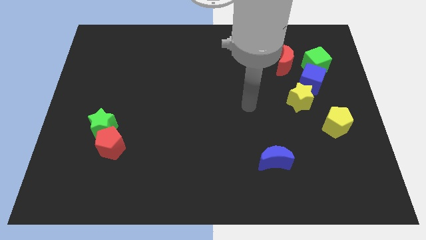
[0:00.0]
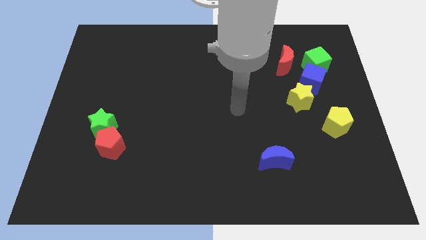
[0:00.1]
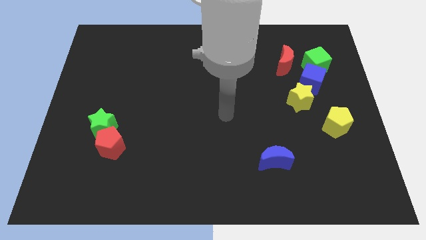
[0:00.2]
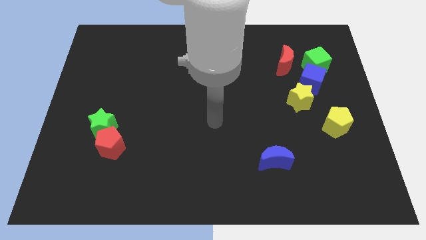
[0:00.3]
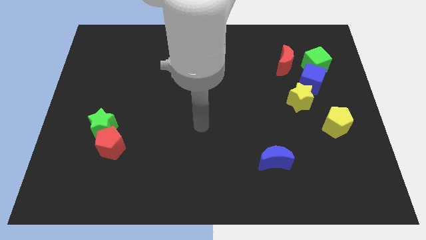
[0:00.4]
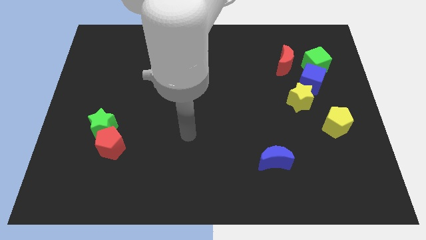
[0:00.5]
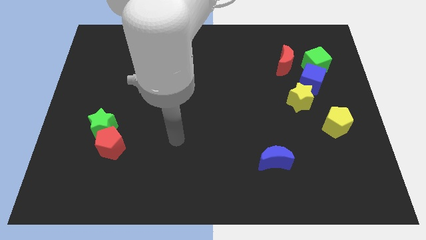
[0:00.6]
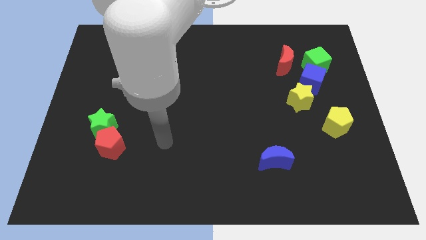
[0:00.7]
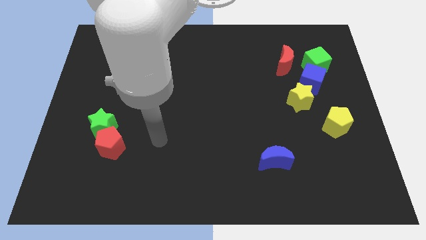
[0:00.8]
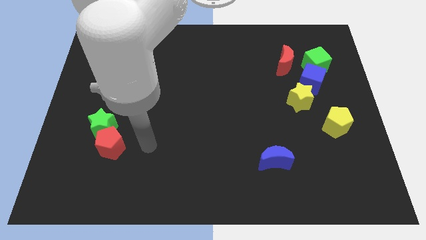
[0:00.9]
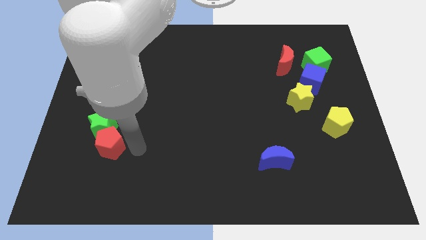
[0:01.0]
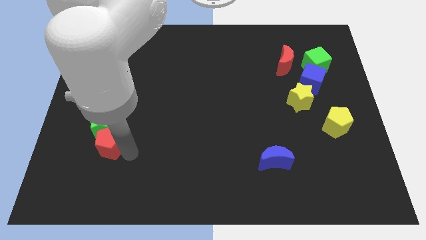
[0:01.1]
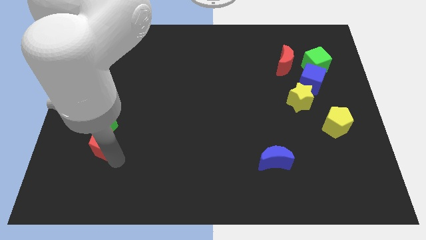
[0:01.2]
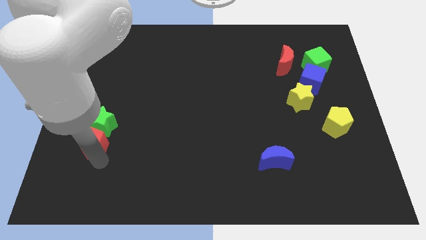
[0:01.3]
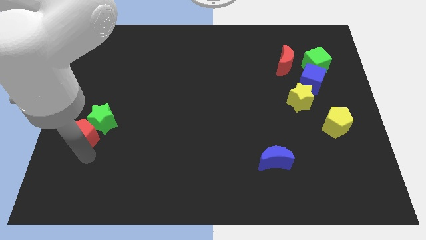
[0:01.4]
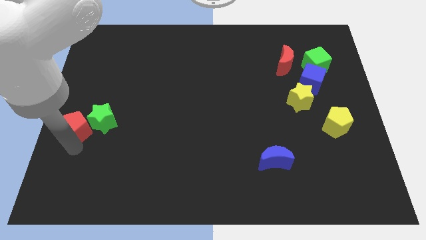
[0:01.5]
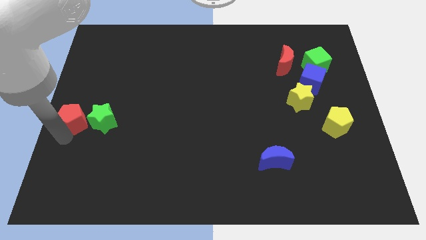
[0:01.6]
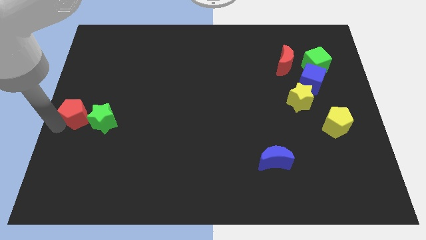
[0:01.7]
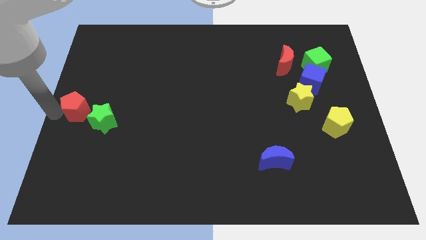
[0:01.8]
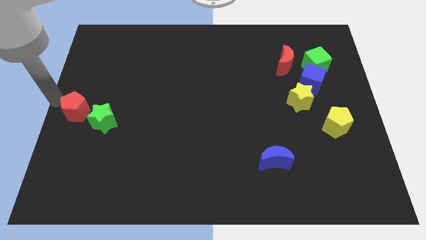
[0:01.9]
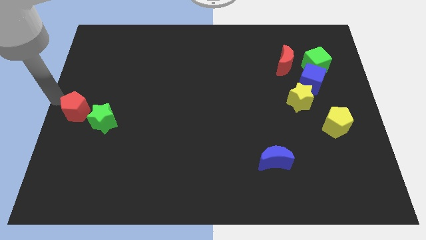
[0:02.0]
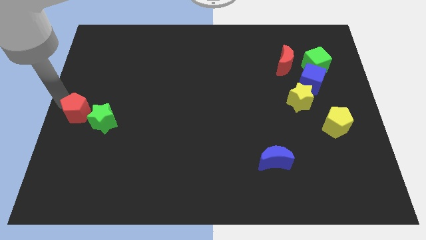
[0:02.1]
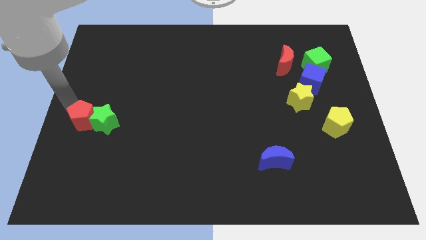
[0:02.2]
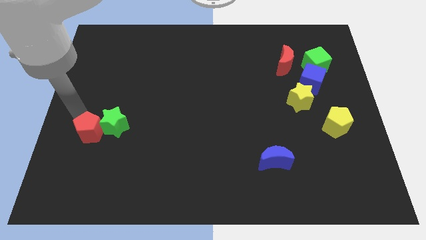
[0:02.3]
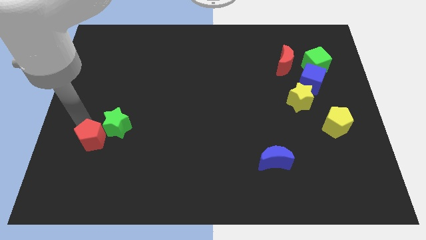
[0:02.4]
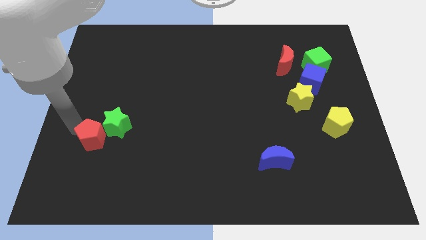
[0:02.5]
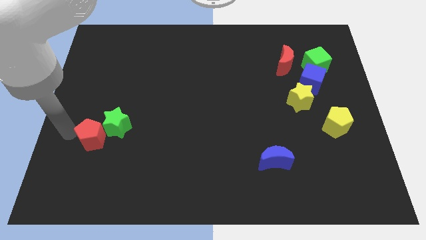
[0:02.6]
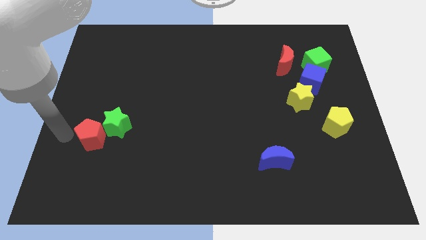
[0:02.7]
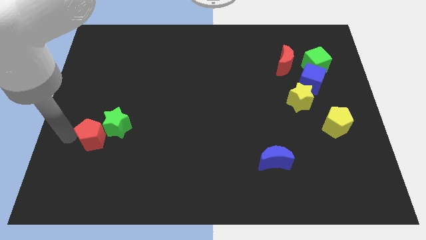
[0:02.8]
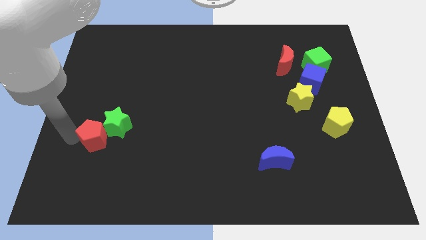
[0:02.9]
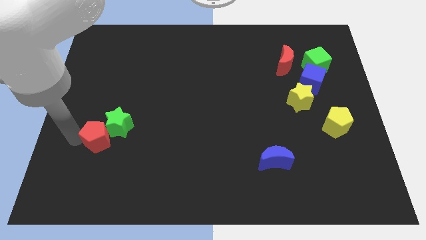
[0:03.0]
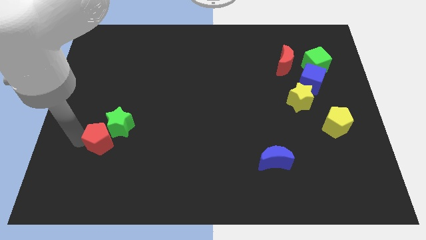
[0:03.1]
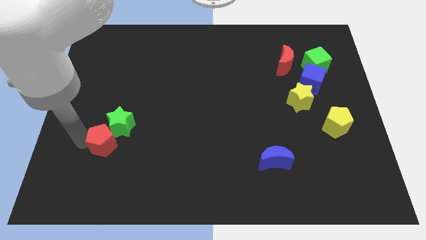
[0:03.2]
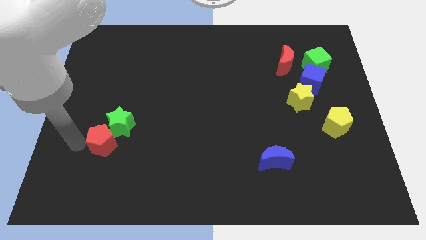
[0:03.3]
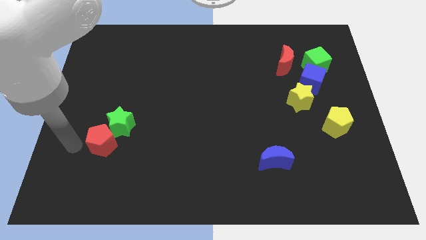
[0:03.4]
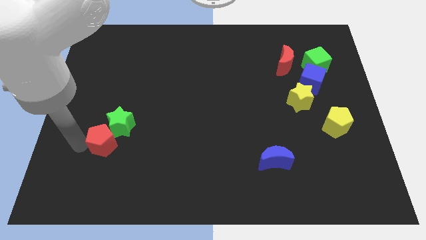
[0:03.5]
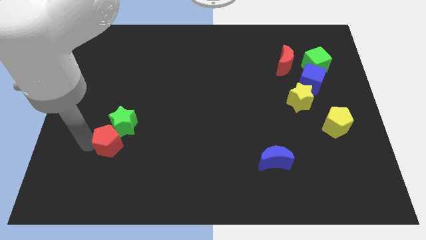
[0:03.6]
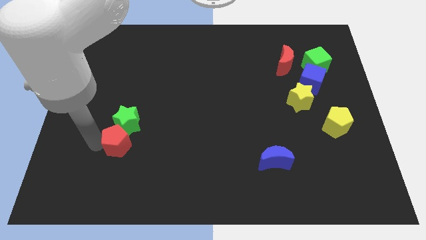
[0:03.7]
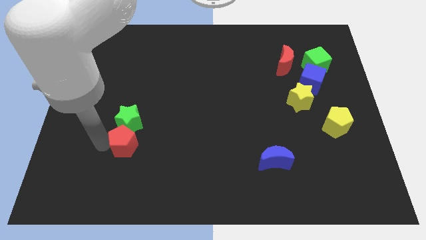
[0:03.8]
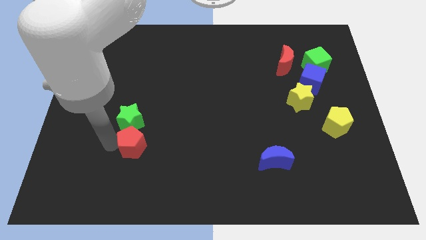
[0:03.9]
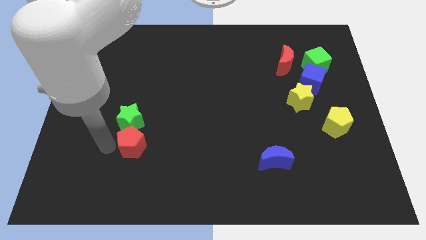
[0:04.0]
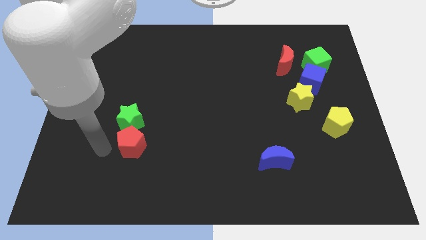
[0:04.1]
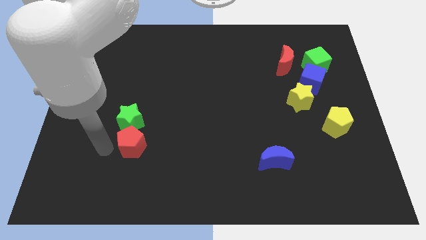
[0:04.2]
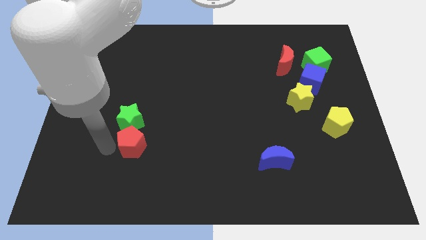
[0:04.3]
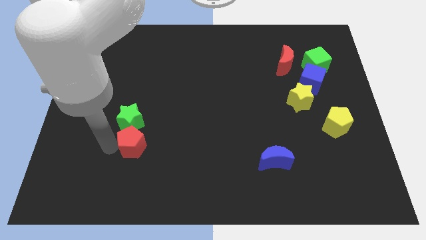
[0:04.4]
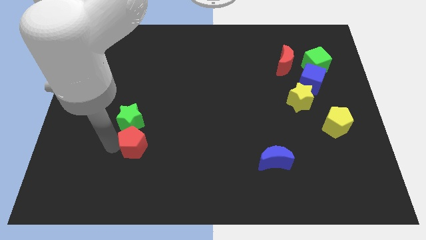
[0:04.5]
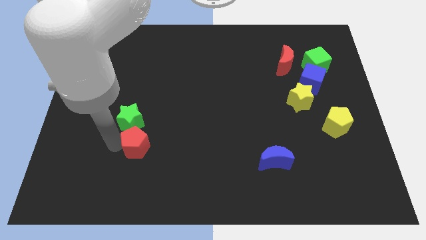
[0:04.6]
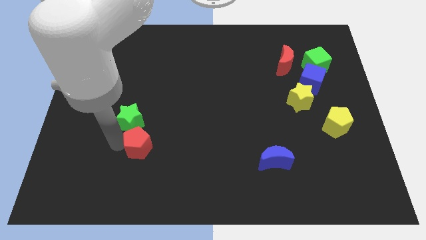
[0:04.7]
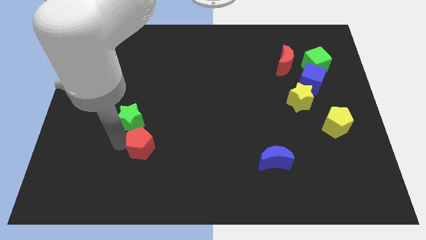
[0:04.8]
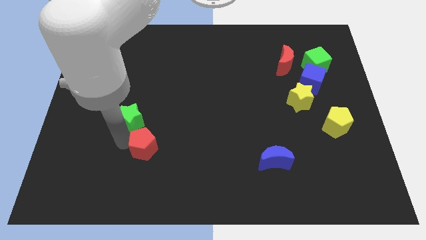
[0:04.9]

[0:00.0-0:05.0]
slightly slide the red pentagon to the right

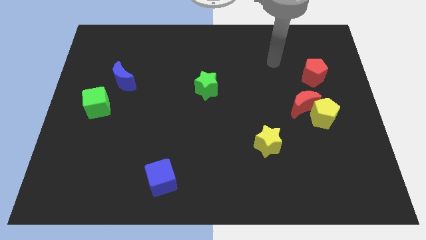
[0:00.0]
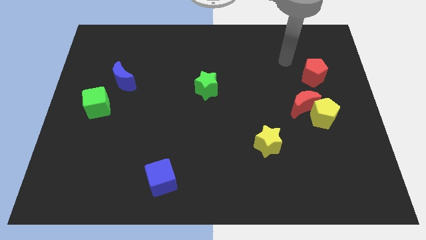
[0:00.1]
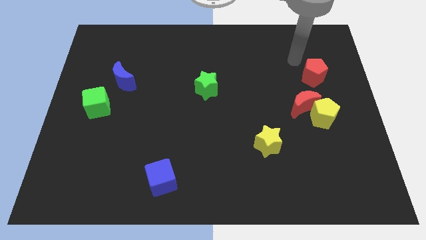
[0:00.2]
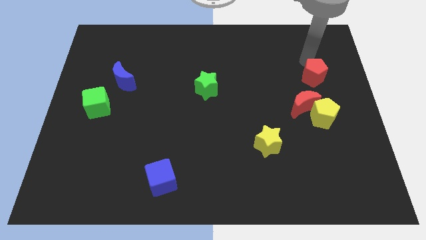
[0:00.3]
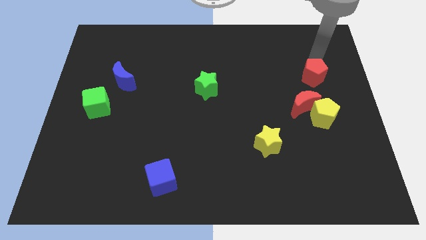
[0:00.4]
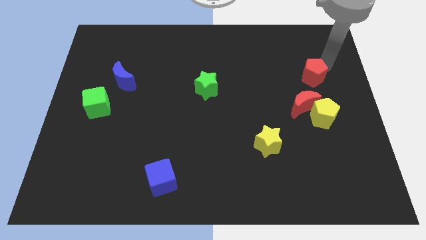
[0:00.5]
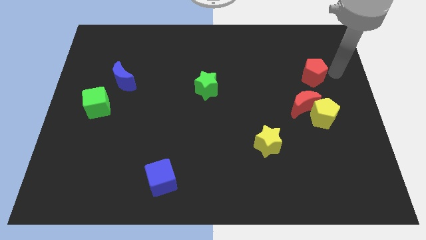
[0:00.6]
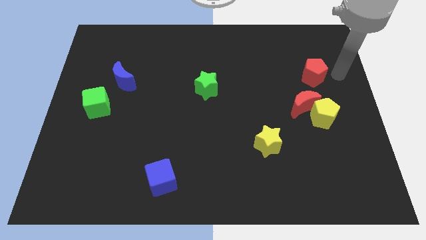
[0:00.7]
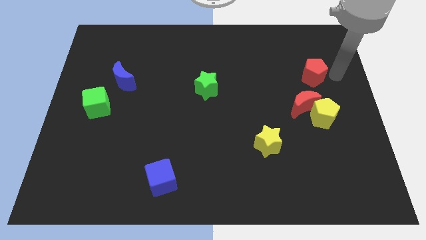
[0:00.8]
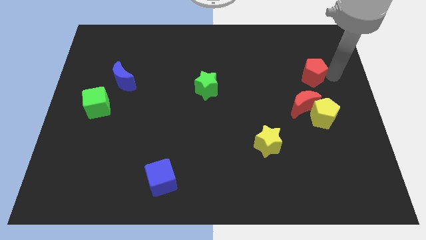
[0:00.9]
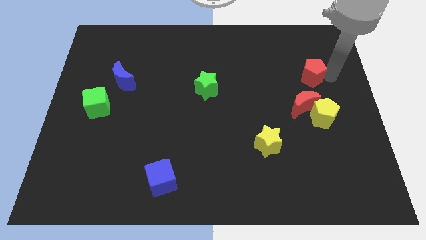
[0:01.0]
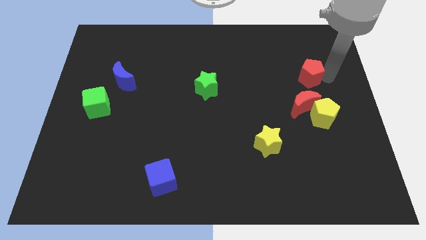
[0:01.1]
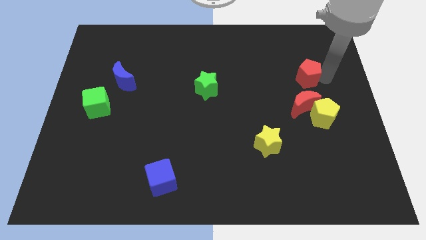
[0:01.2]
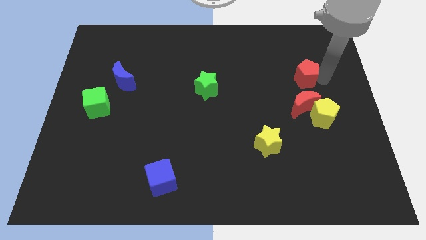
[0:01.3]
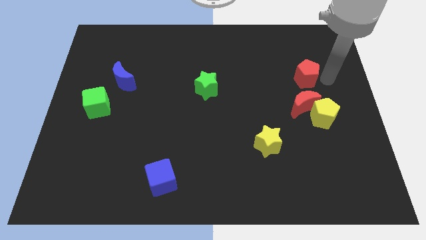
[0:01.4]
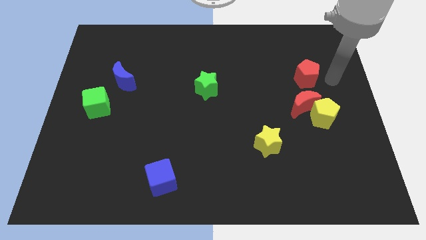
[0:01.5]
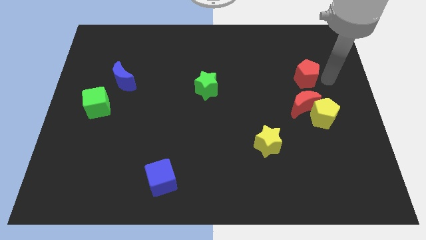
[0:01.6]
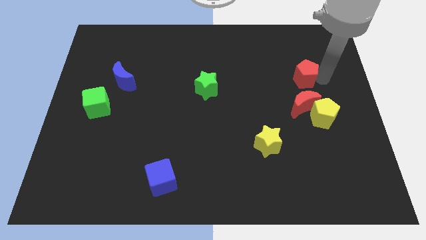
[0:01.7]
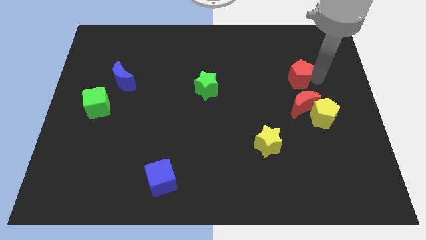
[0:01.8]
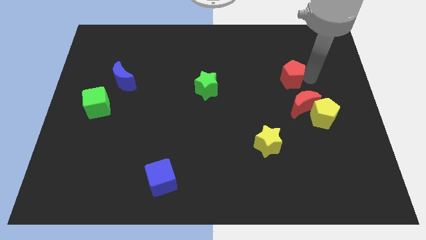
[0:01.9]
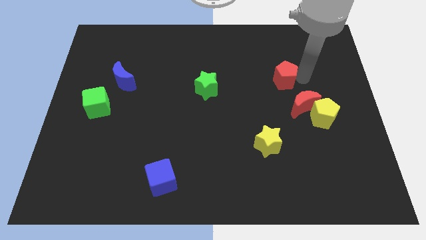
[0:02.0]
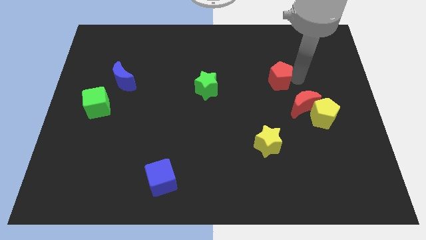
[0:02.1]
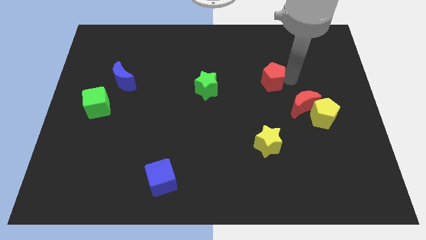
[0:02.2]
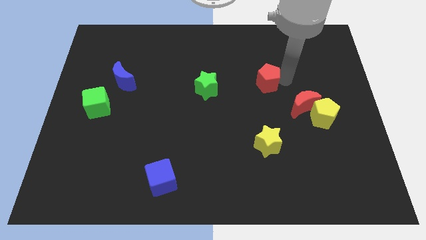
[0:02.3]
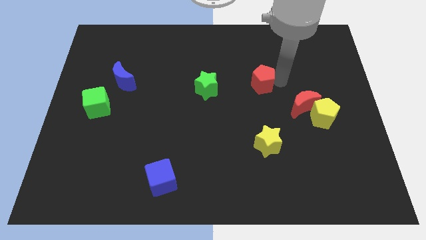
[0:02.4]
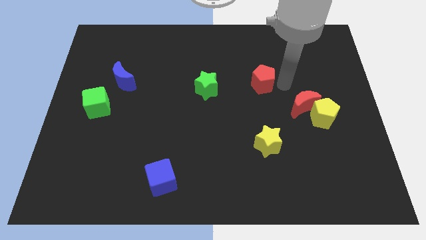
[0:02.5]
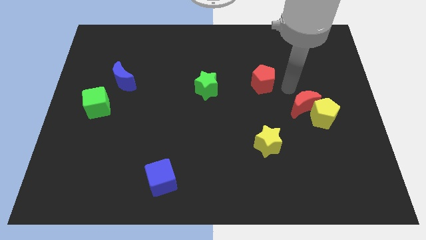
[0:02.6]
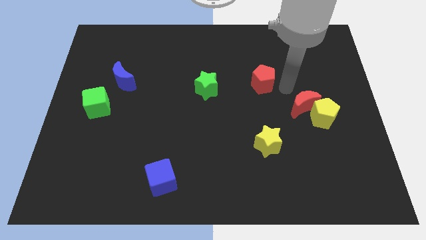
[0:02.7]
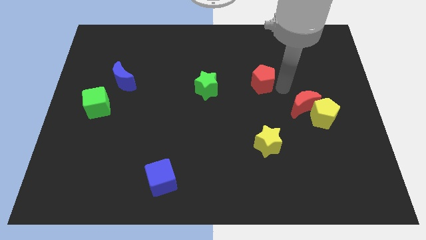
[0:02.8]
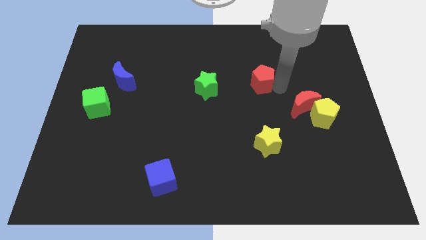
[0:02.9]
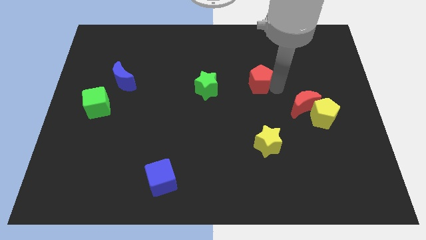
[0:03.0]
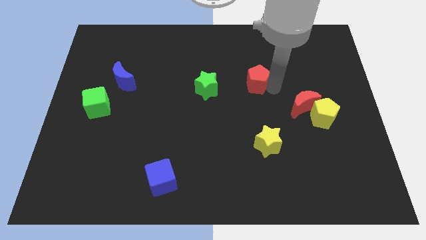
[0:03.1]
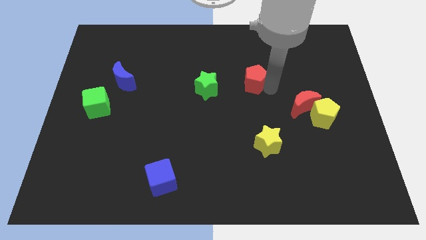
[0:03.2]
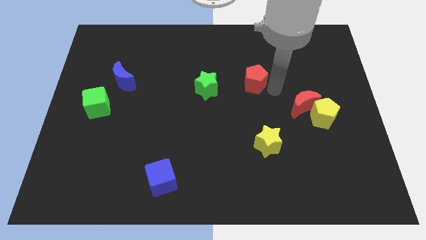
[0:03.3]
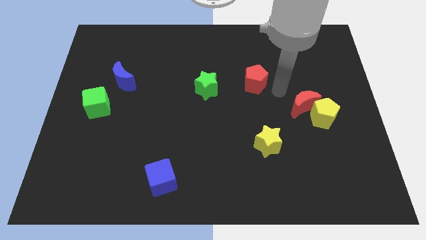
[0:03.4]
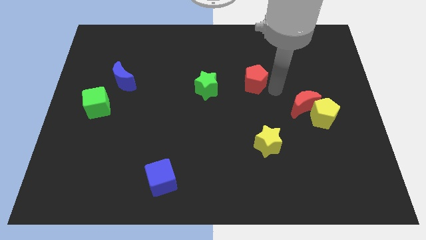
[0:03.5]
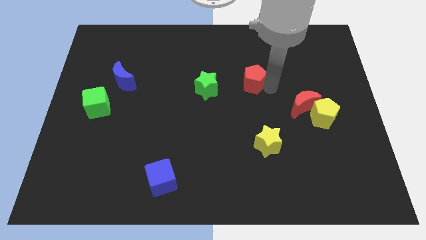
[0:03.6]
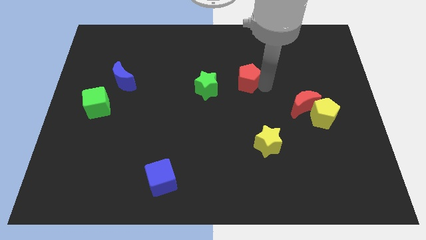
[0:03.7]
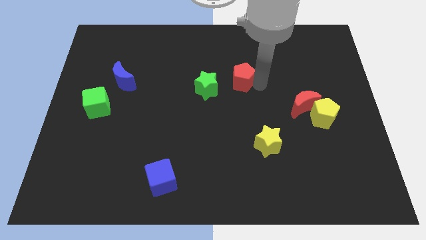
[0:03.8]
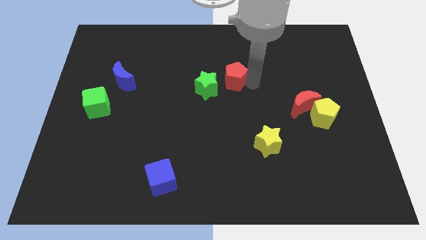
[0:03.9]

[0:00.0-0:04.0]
move the red pentagon left
